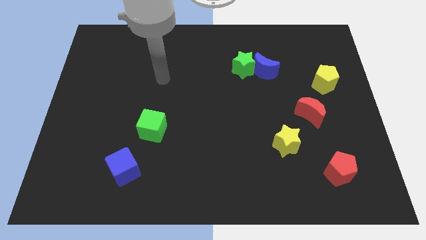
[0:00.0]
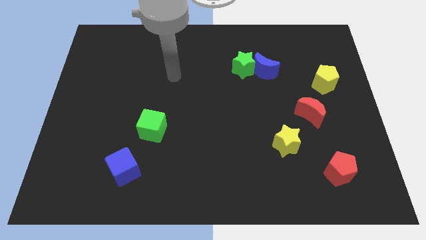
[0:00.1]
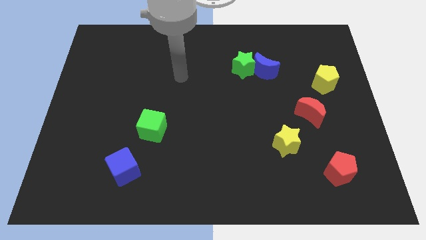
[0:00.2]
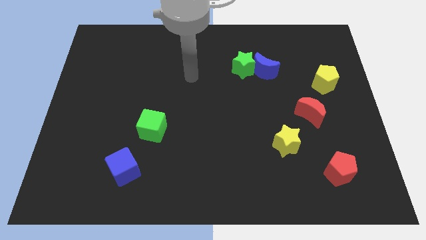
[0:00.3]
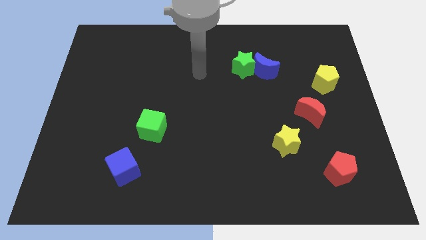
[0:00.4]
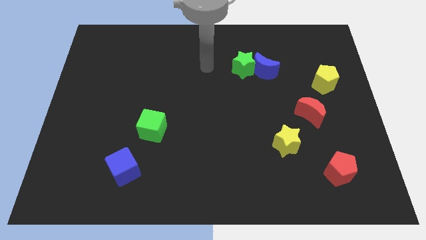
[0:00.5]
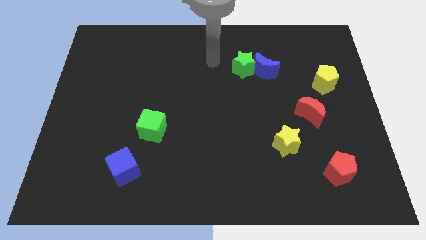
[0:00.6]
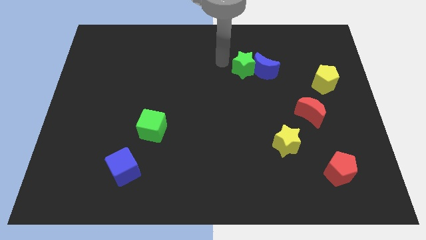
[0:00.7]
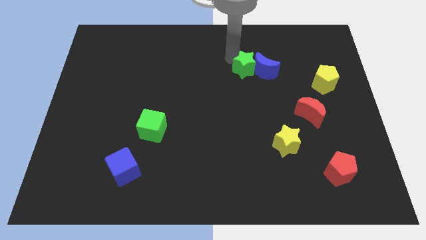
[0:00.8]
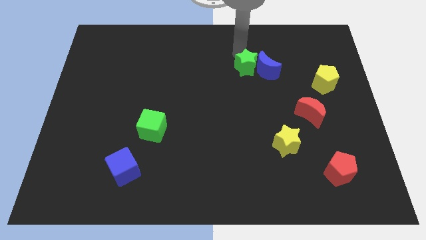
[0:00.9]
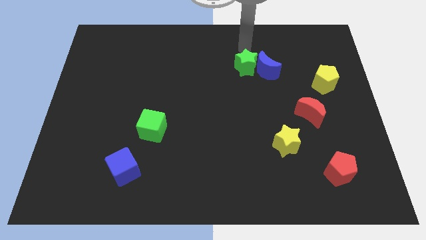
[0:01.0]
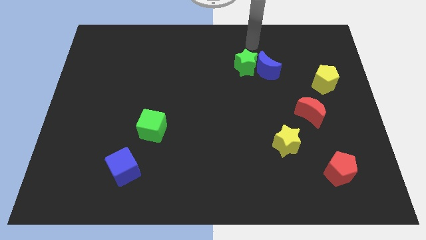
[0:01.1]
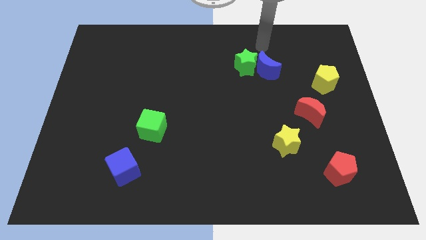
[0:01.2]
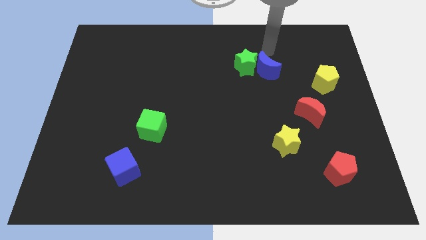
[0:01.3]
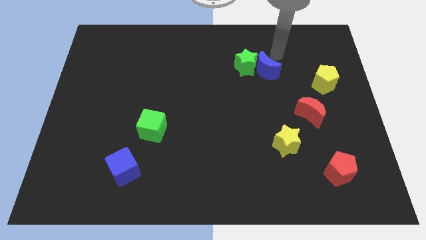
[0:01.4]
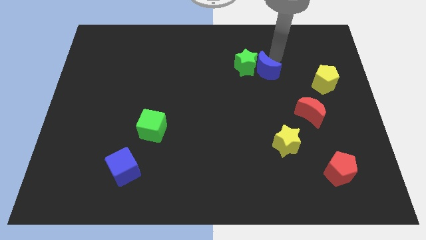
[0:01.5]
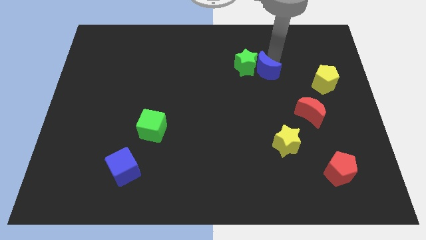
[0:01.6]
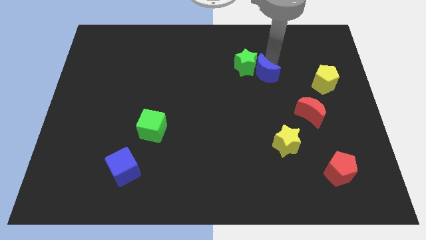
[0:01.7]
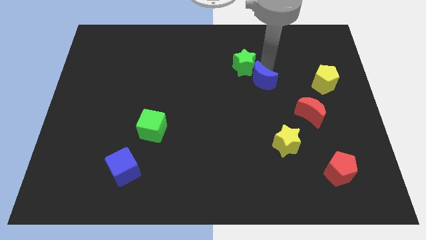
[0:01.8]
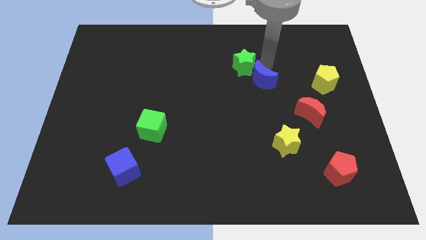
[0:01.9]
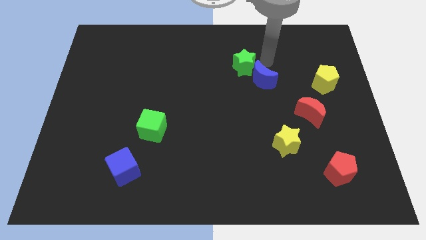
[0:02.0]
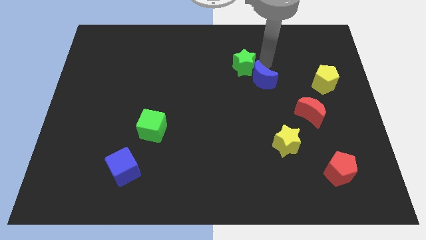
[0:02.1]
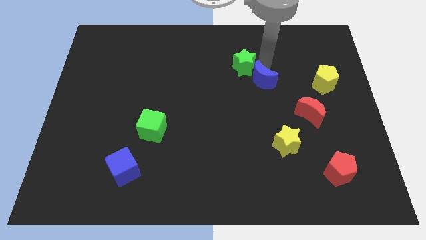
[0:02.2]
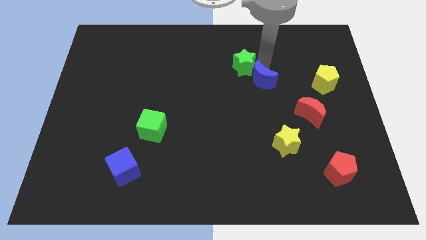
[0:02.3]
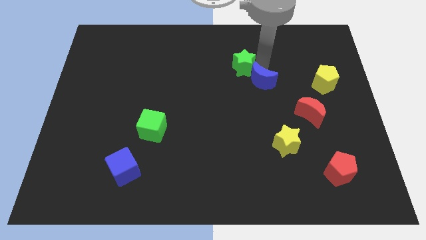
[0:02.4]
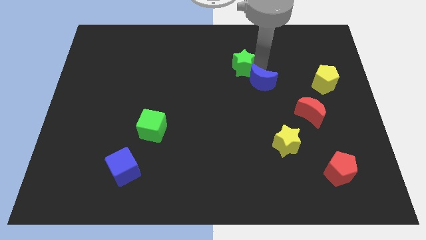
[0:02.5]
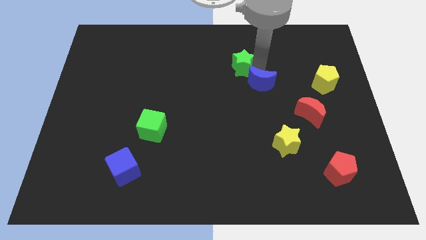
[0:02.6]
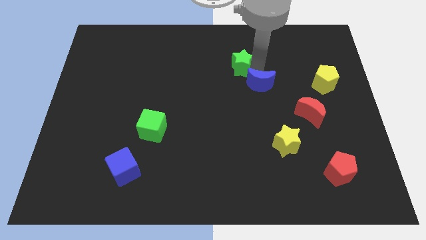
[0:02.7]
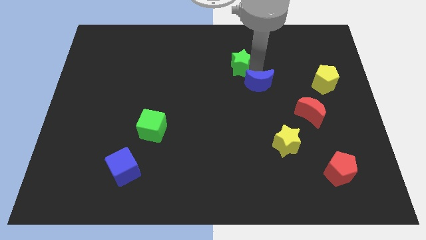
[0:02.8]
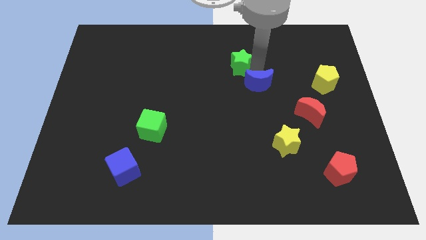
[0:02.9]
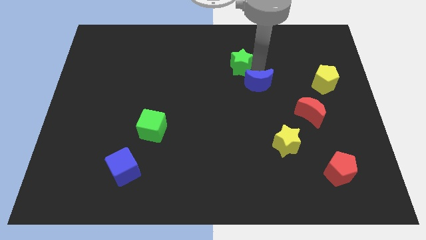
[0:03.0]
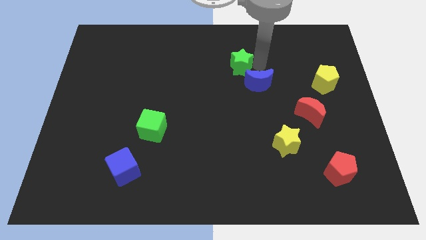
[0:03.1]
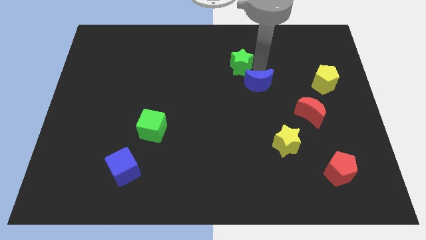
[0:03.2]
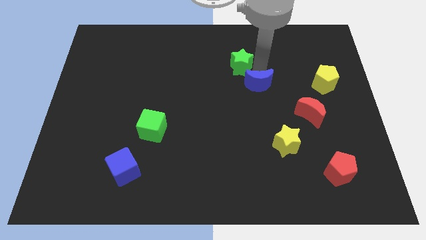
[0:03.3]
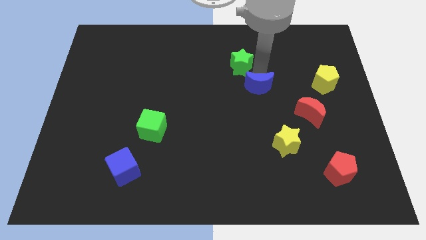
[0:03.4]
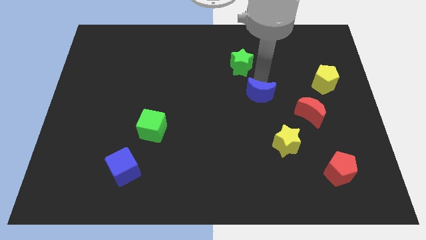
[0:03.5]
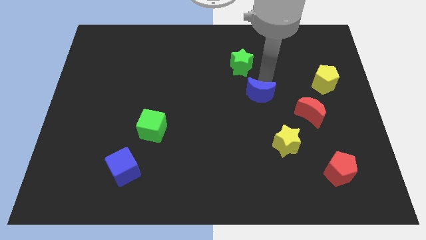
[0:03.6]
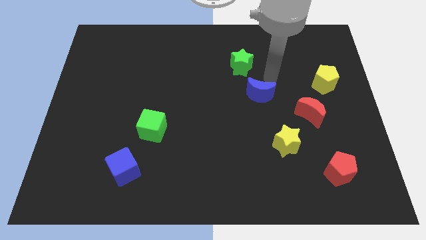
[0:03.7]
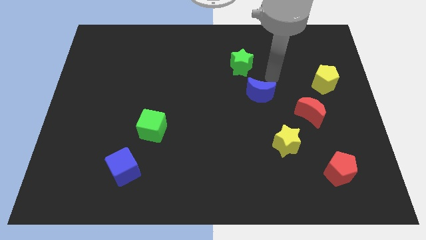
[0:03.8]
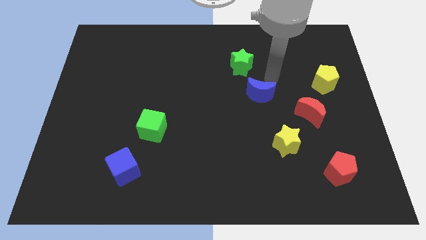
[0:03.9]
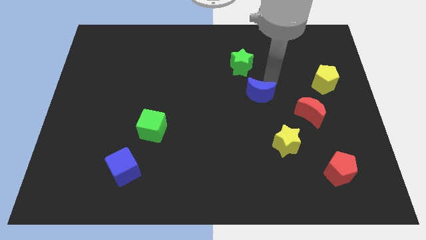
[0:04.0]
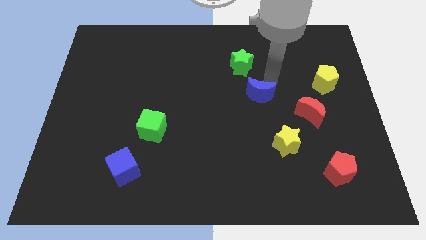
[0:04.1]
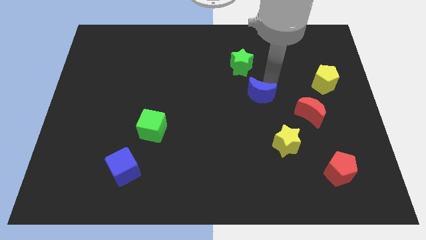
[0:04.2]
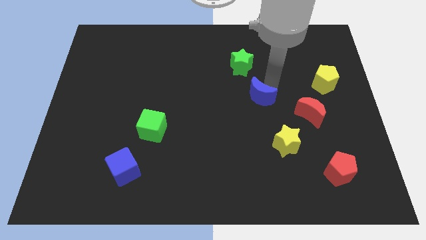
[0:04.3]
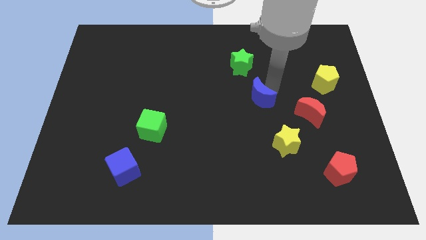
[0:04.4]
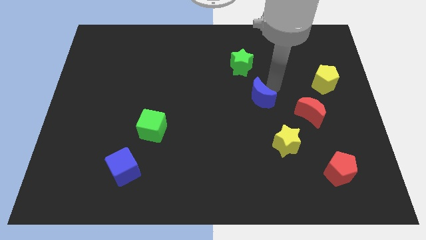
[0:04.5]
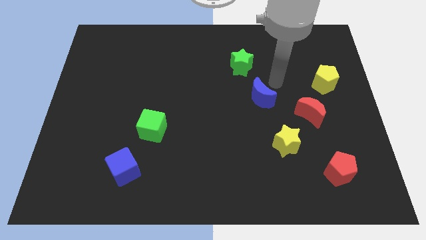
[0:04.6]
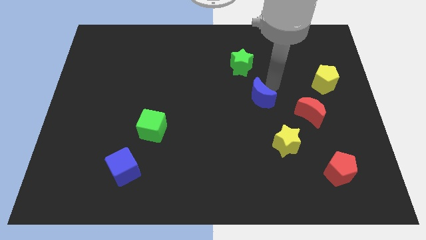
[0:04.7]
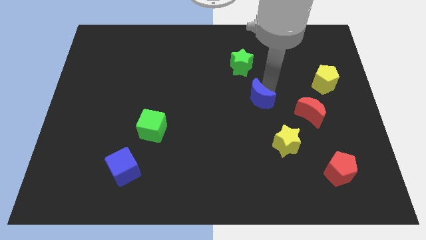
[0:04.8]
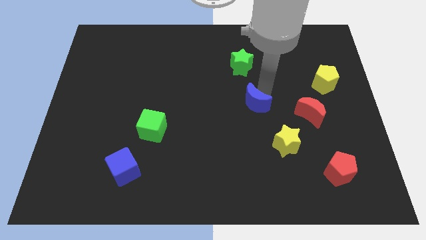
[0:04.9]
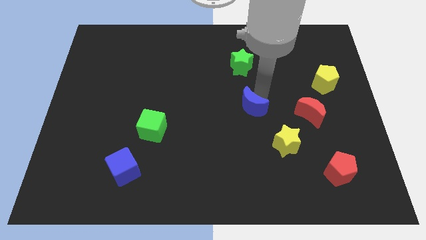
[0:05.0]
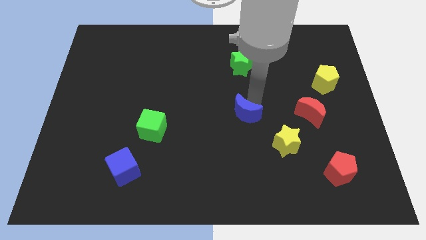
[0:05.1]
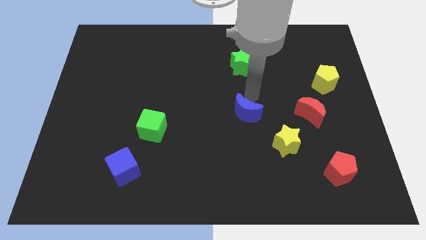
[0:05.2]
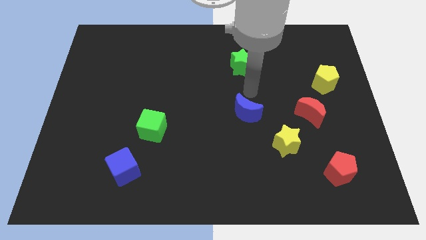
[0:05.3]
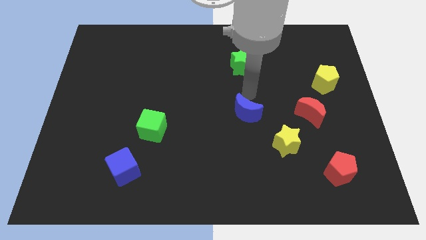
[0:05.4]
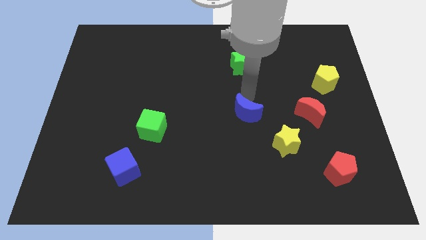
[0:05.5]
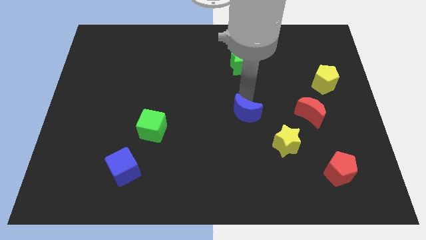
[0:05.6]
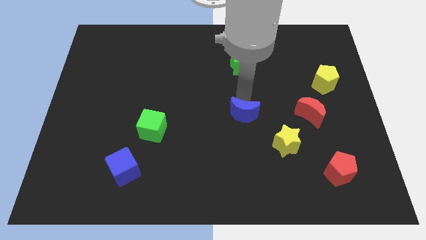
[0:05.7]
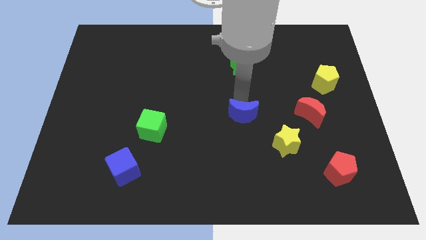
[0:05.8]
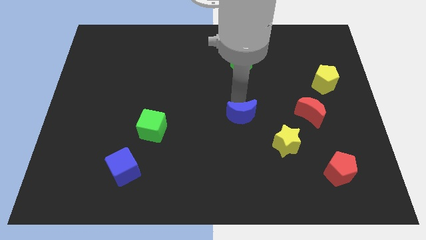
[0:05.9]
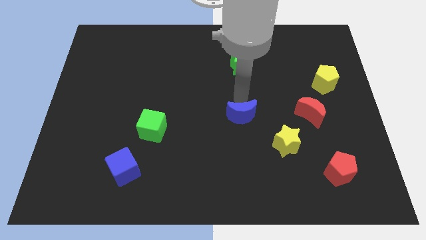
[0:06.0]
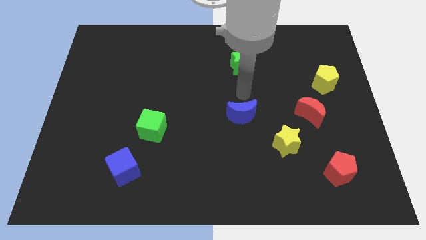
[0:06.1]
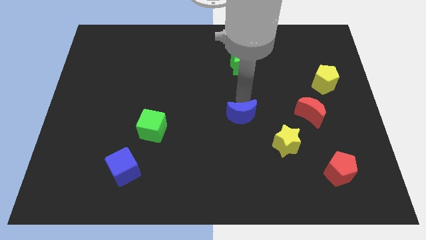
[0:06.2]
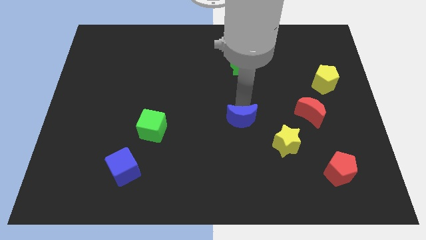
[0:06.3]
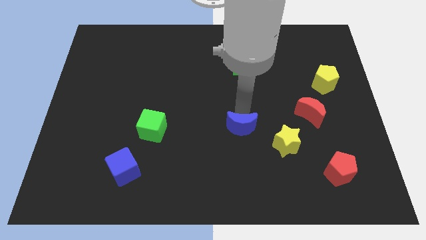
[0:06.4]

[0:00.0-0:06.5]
move the blue moon to the left side of the yellow star

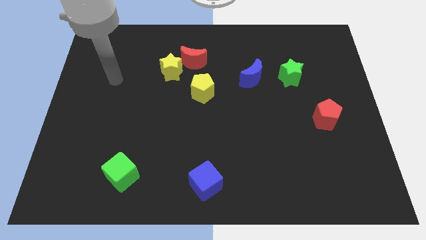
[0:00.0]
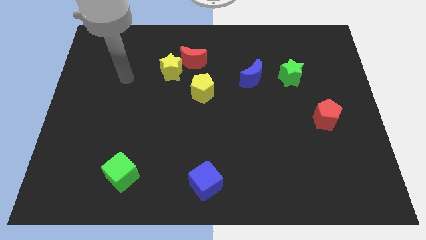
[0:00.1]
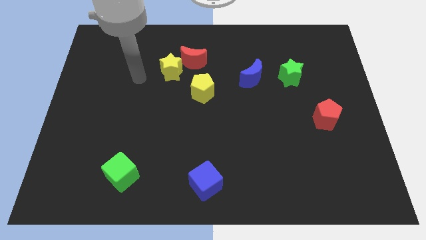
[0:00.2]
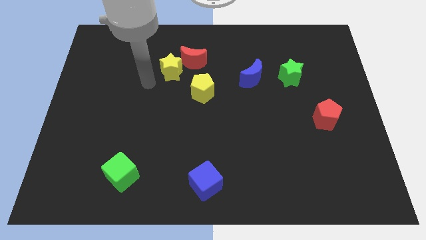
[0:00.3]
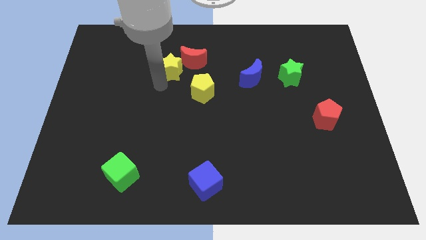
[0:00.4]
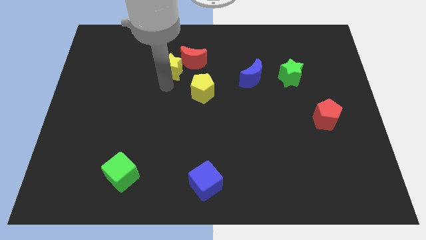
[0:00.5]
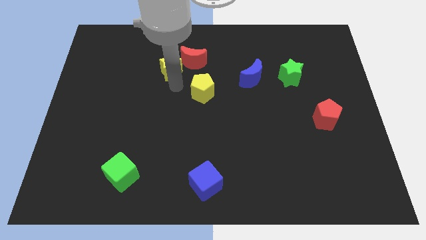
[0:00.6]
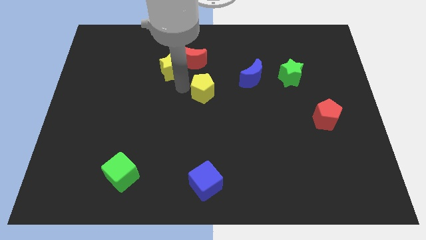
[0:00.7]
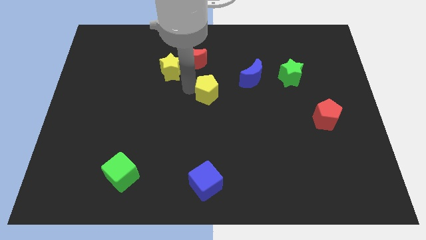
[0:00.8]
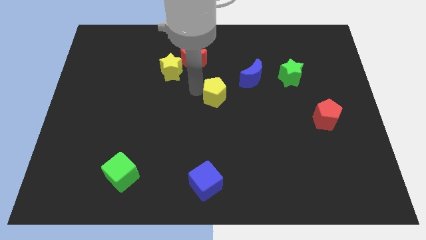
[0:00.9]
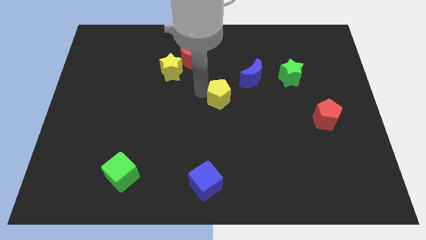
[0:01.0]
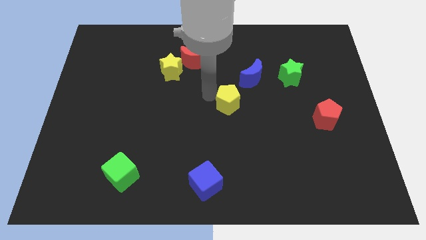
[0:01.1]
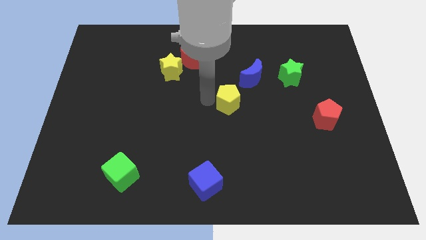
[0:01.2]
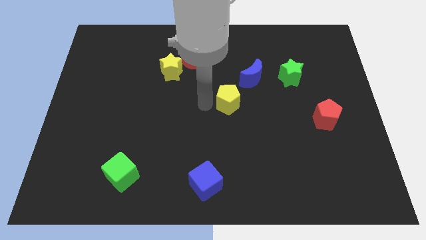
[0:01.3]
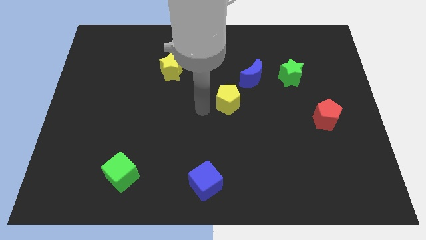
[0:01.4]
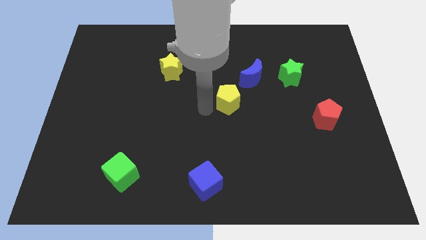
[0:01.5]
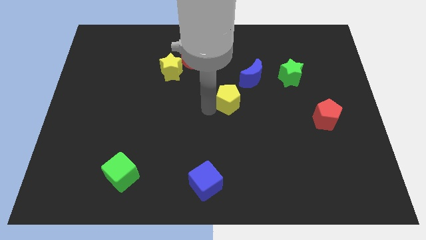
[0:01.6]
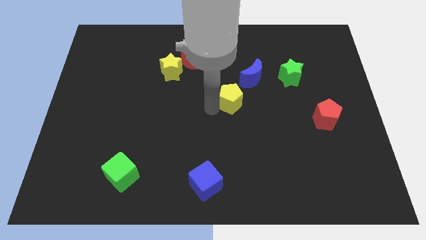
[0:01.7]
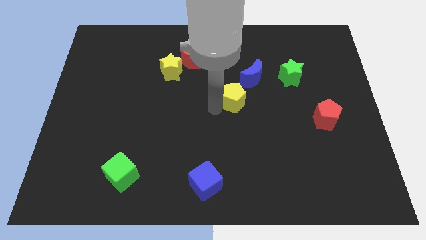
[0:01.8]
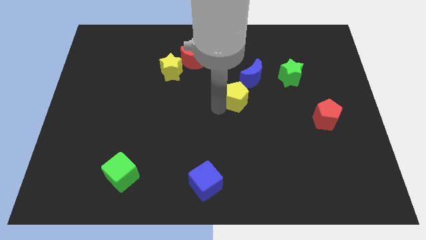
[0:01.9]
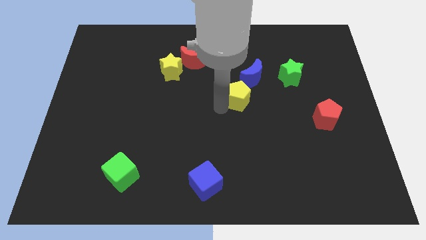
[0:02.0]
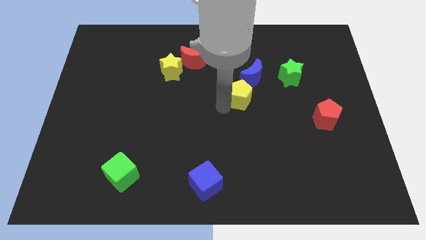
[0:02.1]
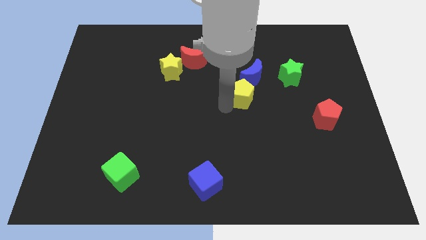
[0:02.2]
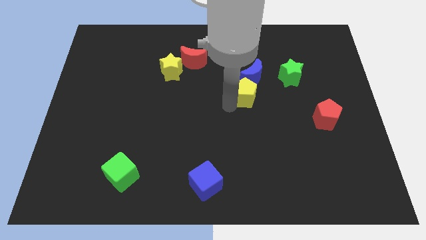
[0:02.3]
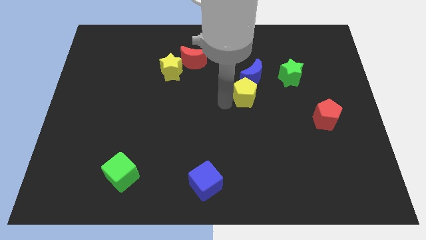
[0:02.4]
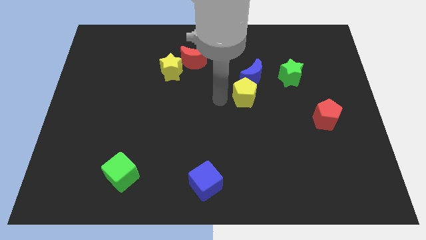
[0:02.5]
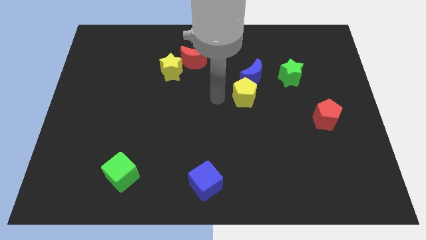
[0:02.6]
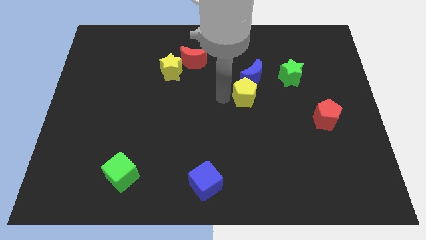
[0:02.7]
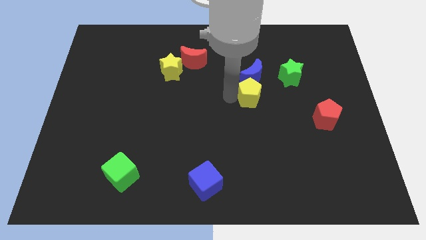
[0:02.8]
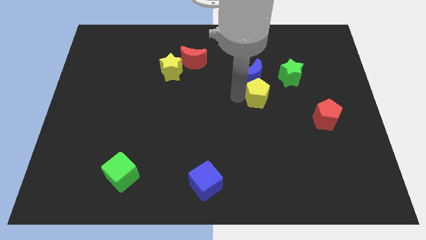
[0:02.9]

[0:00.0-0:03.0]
put the yellow pentagon to the bottom right of the blue moon
